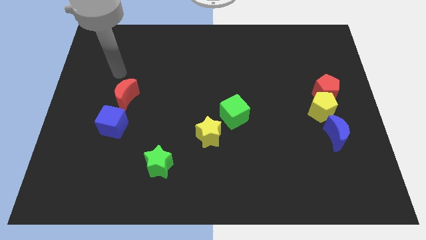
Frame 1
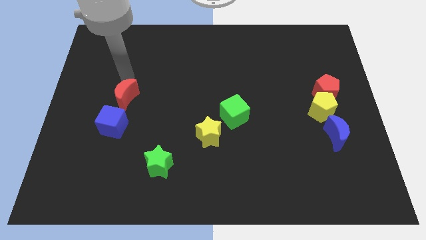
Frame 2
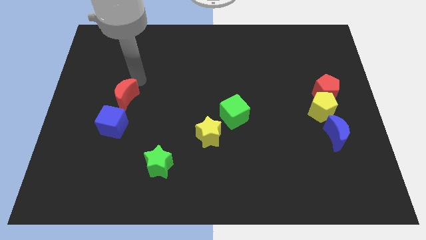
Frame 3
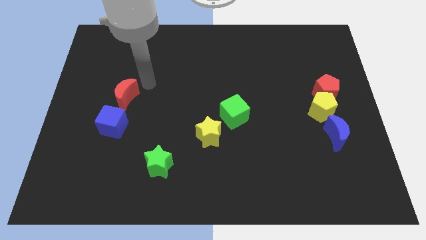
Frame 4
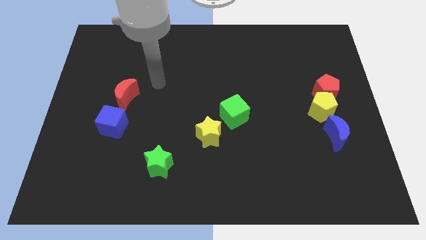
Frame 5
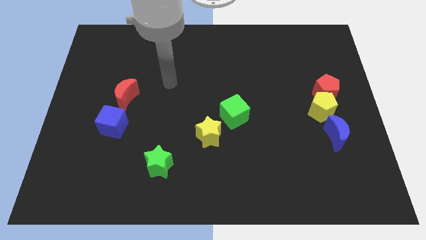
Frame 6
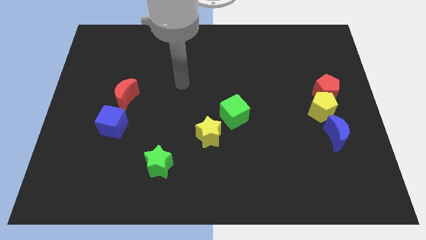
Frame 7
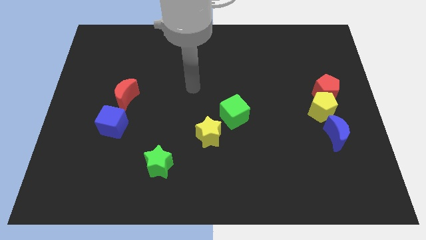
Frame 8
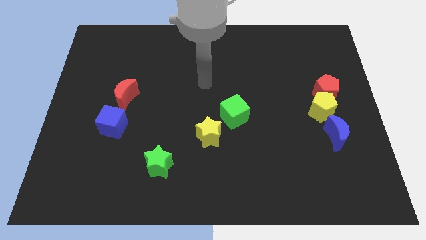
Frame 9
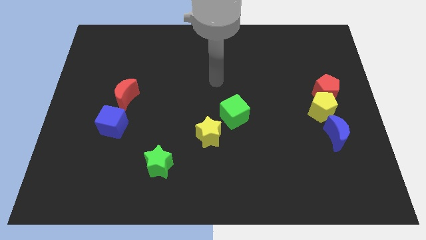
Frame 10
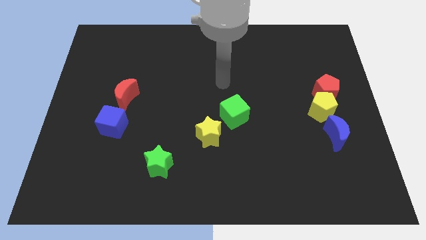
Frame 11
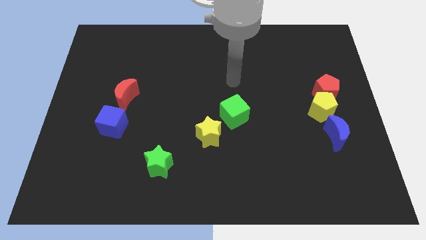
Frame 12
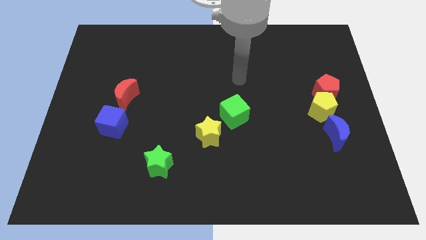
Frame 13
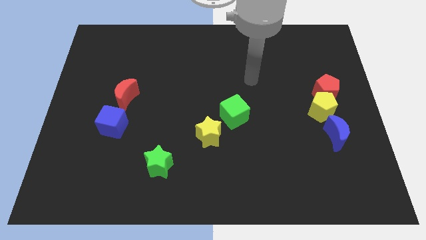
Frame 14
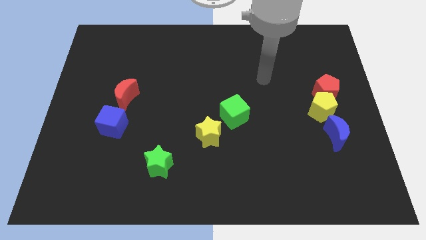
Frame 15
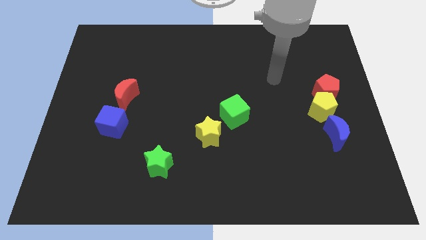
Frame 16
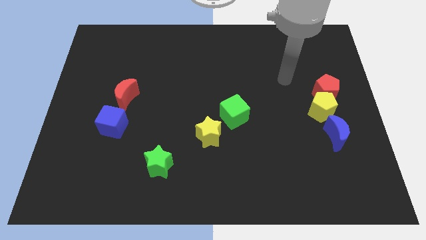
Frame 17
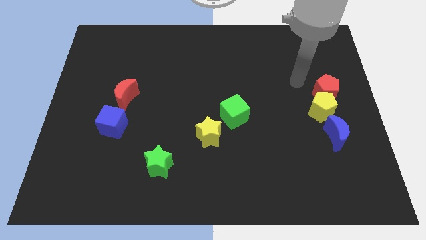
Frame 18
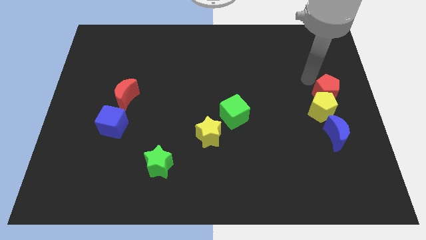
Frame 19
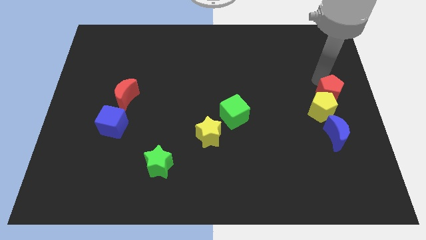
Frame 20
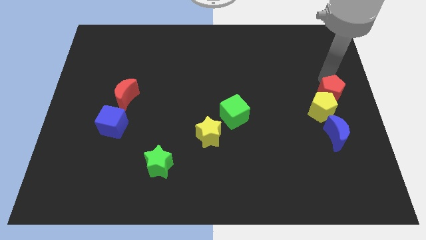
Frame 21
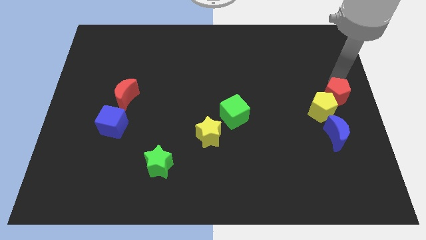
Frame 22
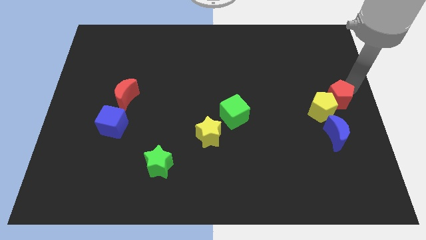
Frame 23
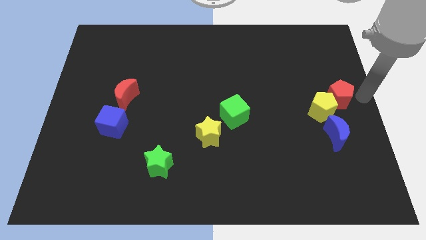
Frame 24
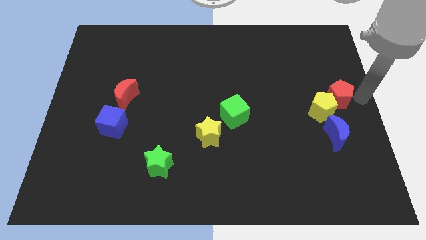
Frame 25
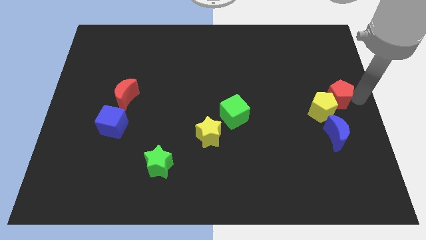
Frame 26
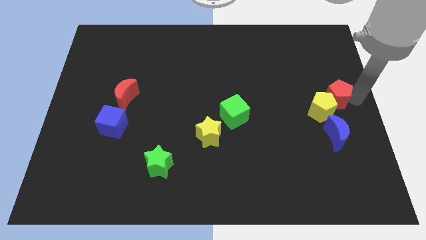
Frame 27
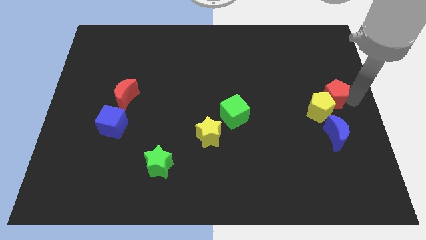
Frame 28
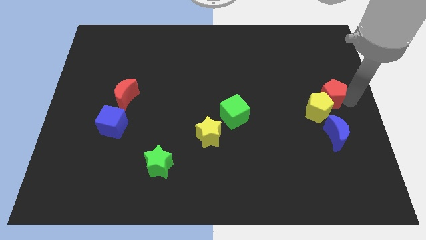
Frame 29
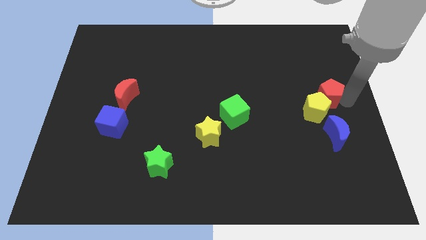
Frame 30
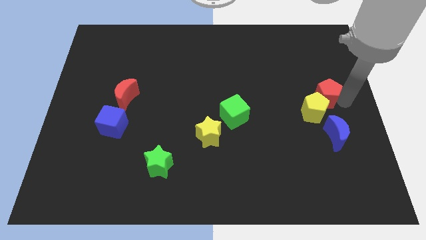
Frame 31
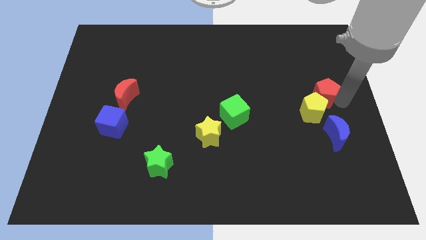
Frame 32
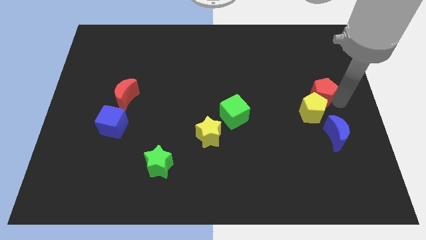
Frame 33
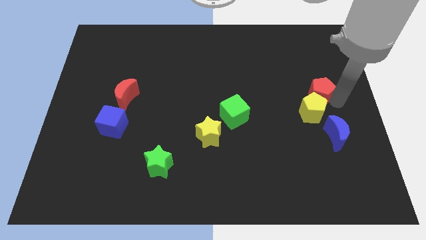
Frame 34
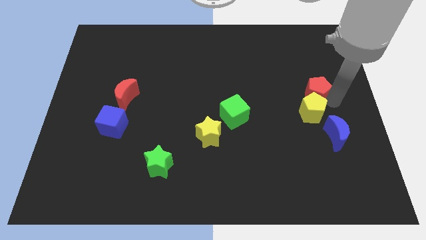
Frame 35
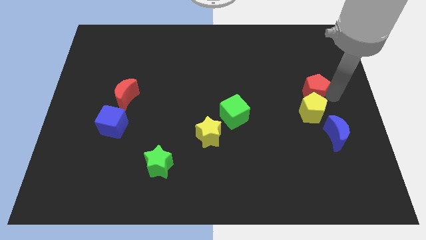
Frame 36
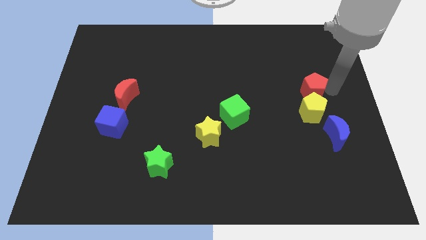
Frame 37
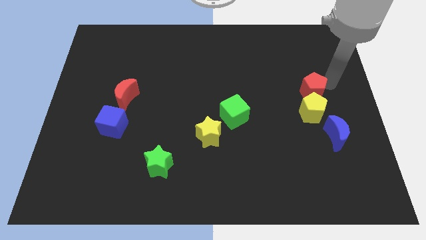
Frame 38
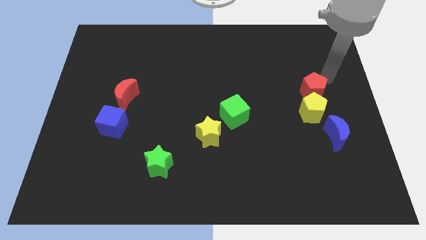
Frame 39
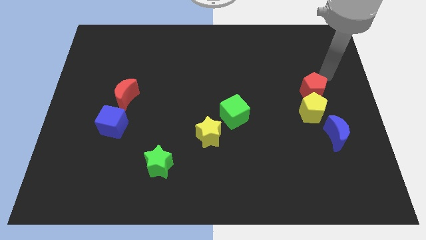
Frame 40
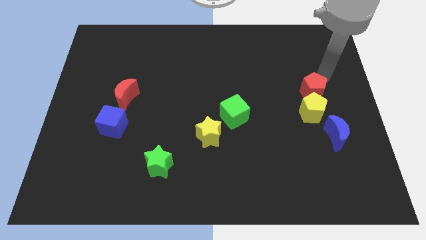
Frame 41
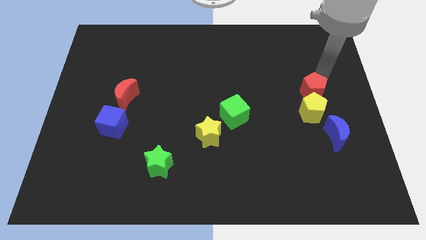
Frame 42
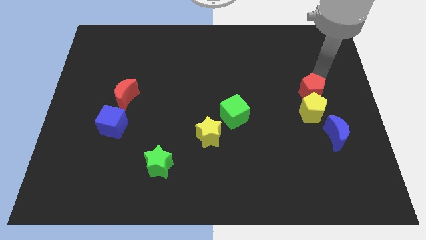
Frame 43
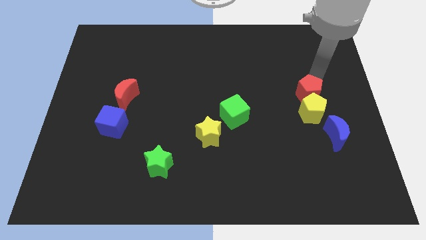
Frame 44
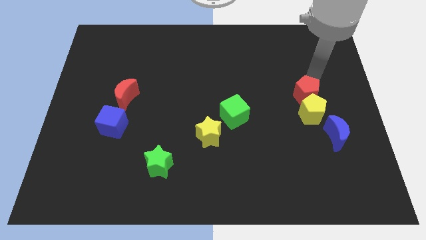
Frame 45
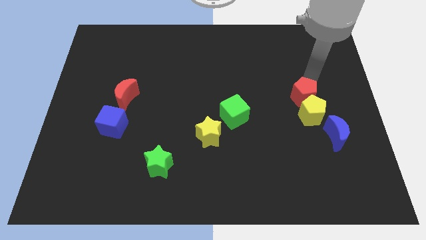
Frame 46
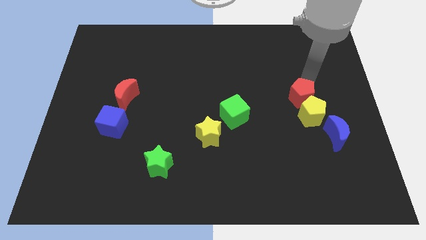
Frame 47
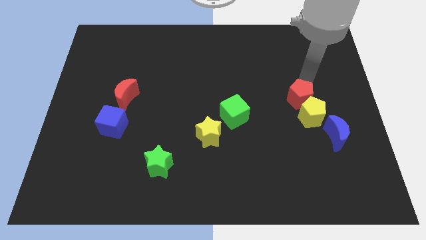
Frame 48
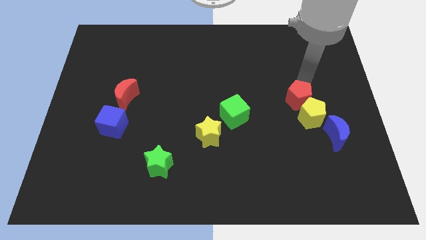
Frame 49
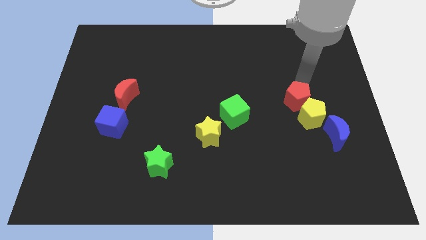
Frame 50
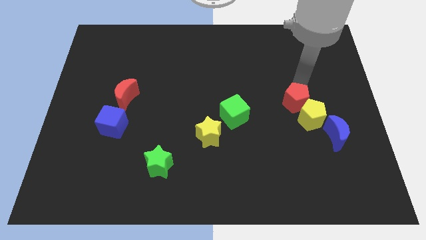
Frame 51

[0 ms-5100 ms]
slightly slide the red pentagon diagonally downwards and left

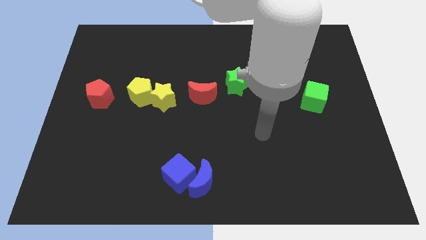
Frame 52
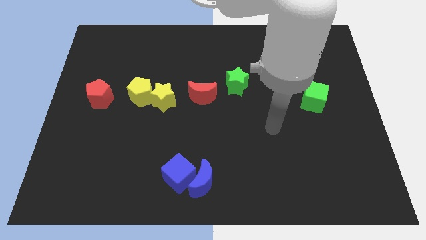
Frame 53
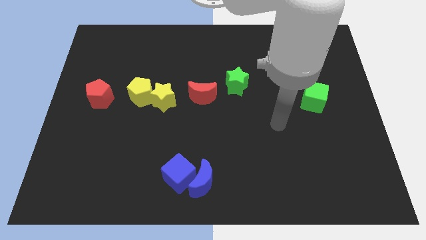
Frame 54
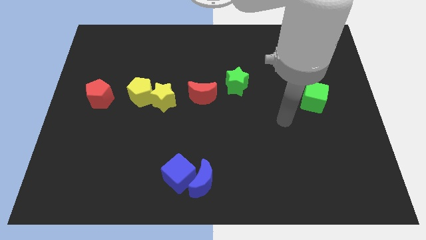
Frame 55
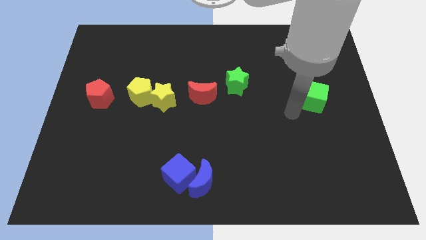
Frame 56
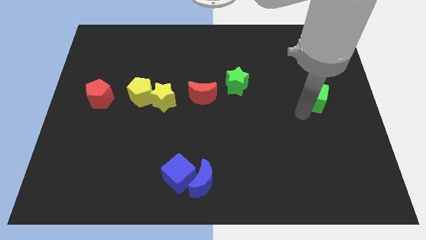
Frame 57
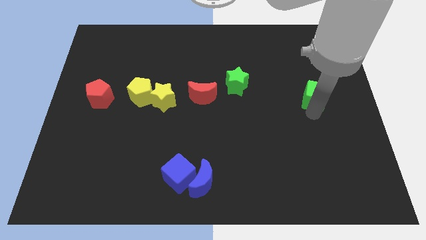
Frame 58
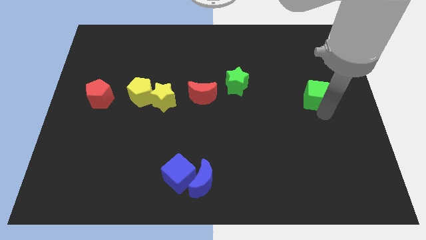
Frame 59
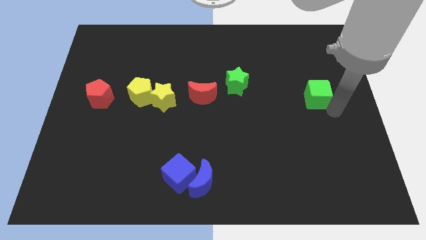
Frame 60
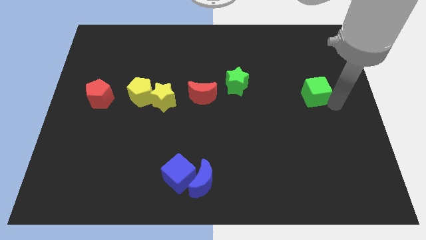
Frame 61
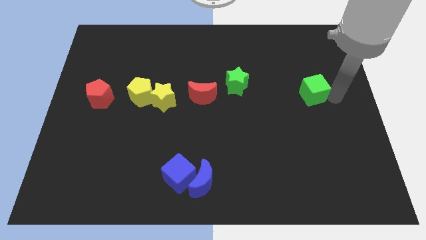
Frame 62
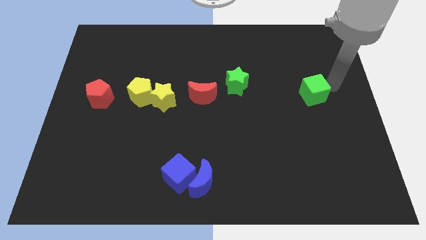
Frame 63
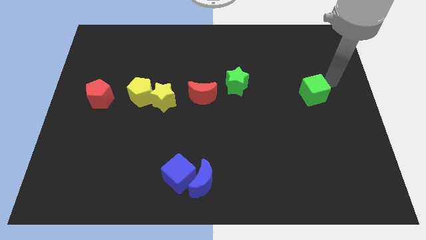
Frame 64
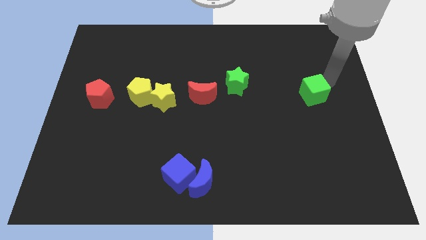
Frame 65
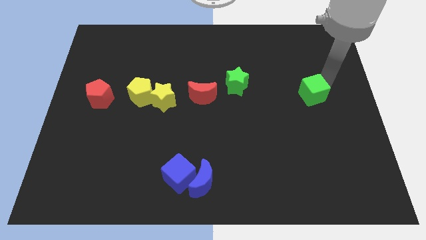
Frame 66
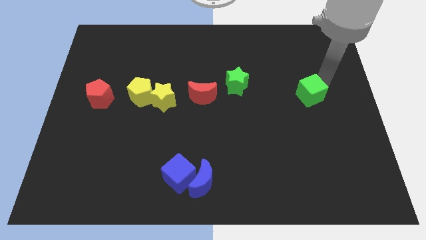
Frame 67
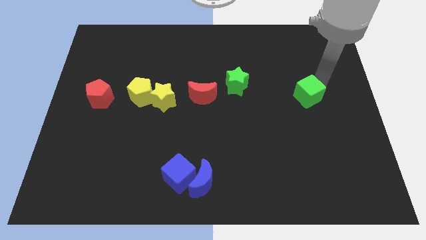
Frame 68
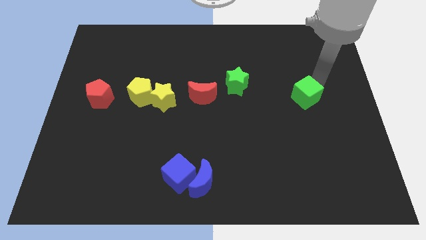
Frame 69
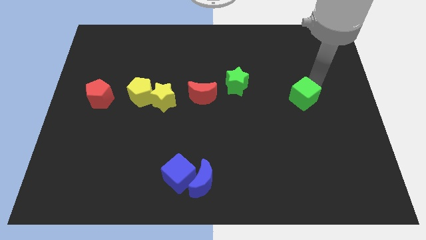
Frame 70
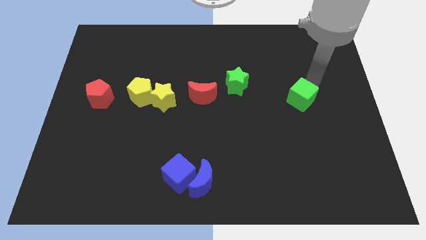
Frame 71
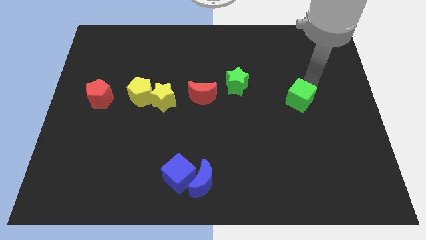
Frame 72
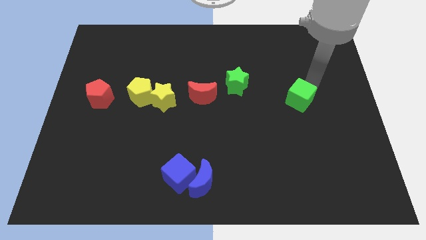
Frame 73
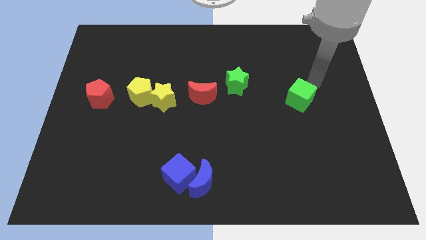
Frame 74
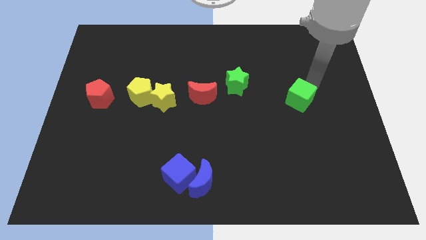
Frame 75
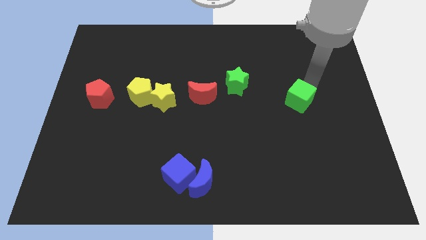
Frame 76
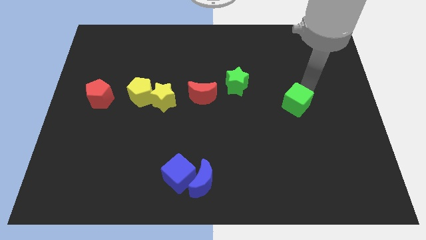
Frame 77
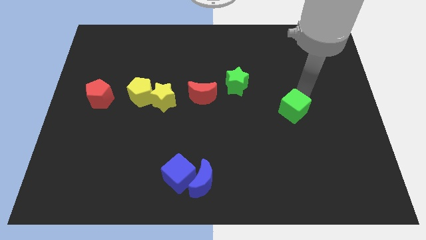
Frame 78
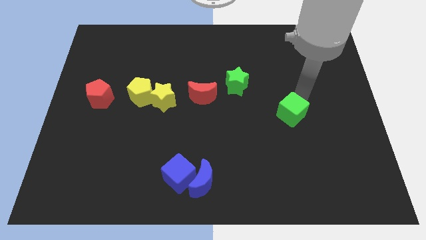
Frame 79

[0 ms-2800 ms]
move the green cube somewhat down and to the left diagonally

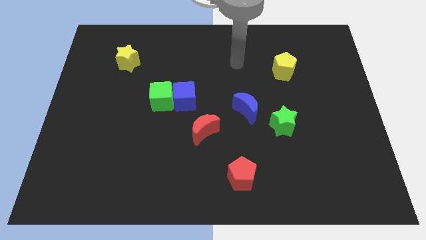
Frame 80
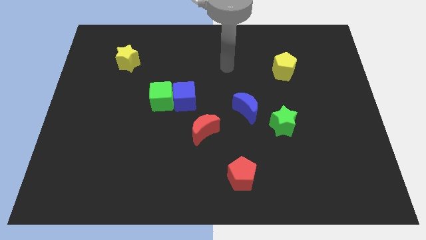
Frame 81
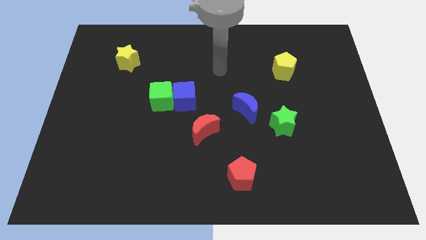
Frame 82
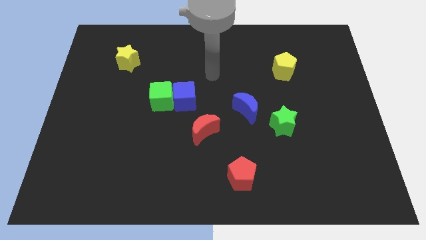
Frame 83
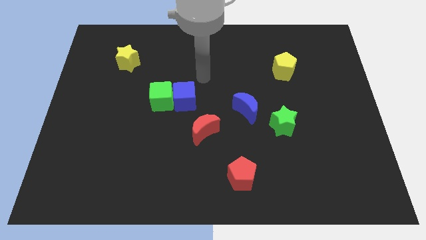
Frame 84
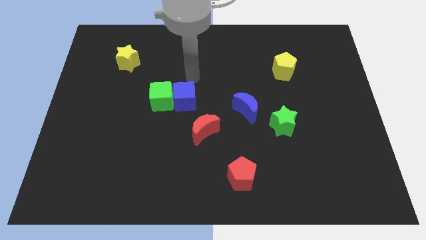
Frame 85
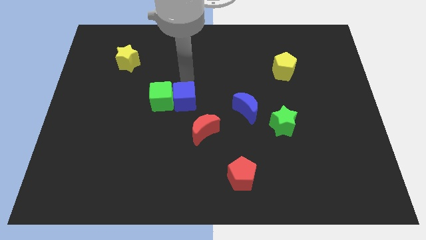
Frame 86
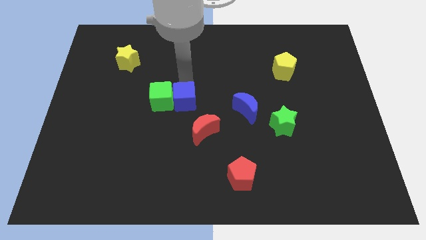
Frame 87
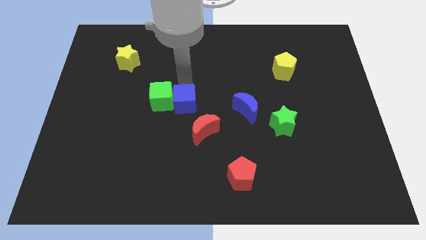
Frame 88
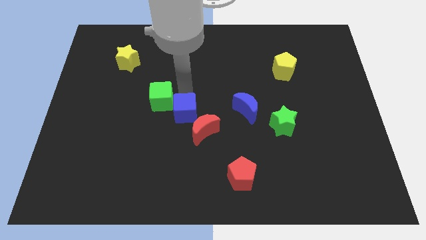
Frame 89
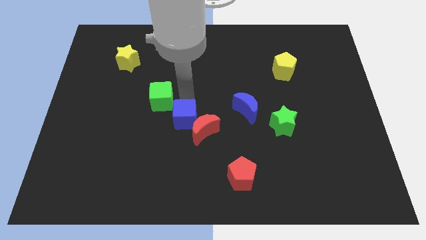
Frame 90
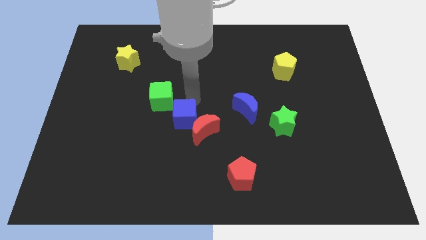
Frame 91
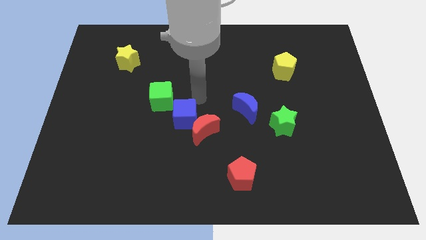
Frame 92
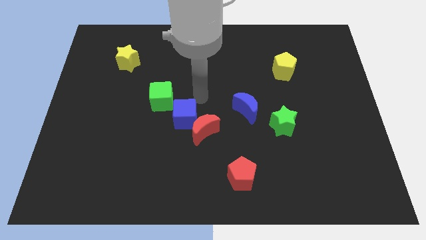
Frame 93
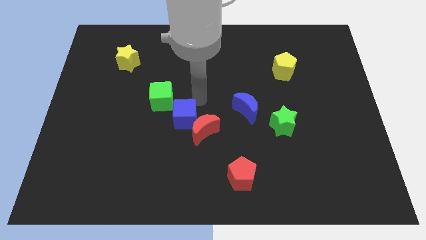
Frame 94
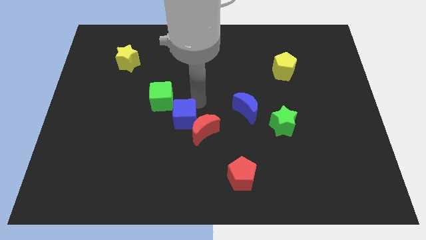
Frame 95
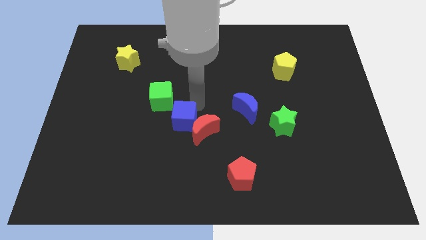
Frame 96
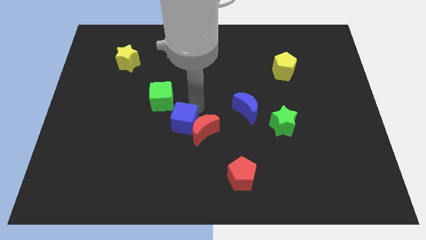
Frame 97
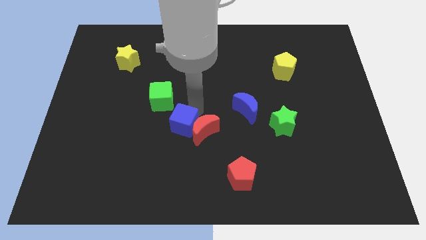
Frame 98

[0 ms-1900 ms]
slightly push the blue cube downwards
